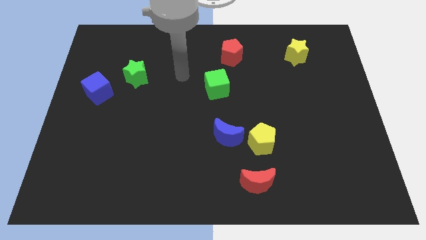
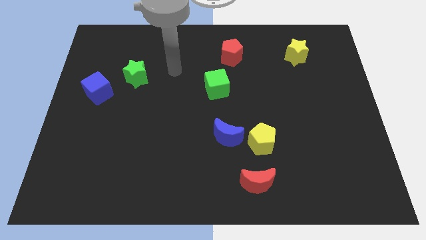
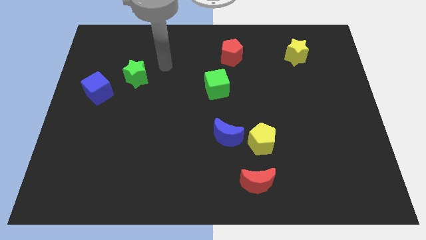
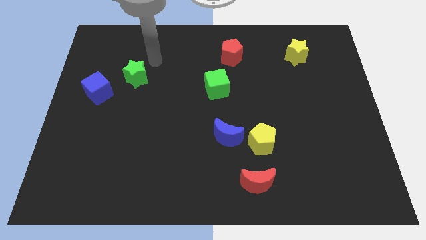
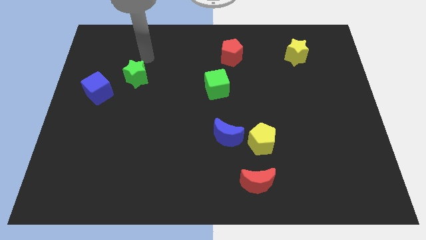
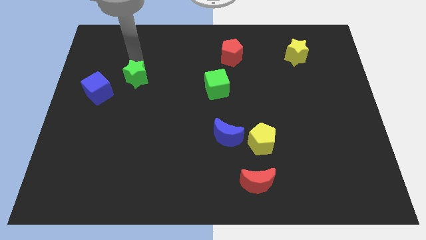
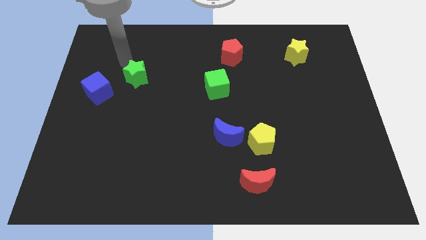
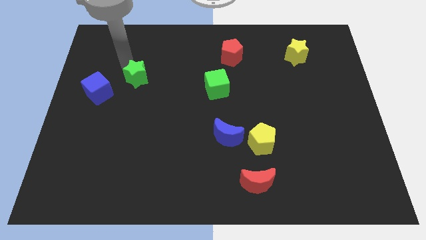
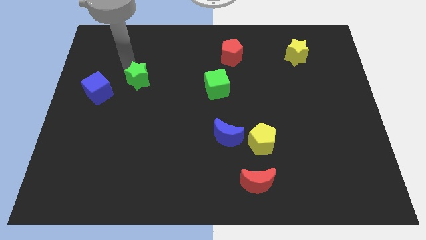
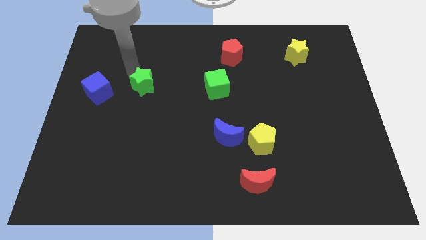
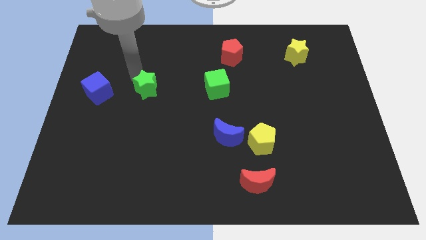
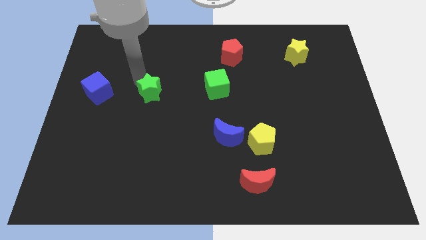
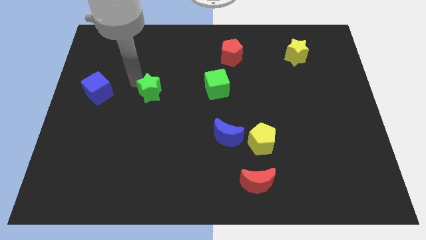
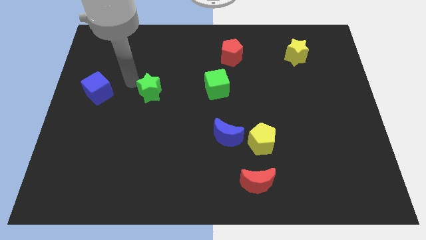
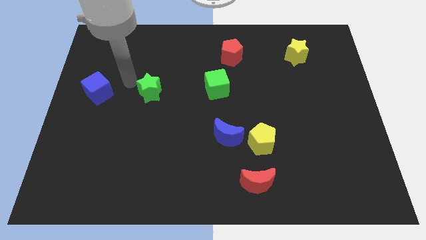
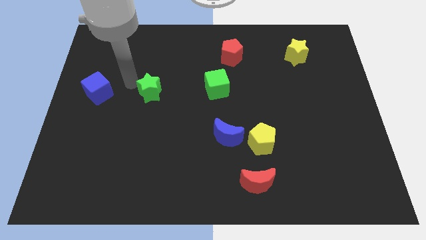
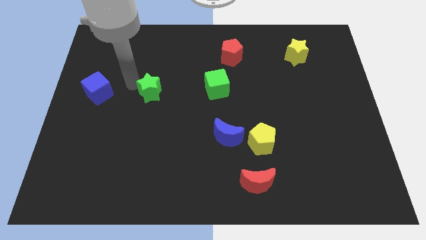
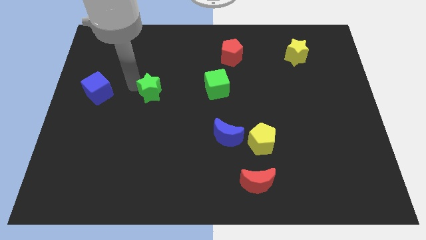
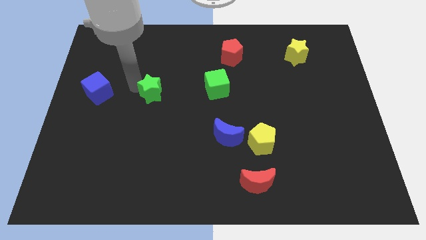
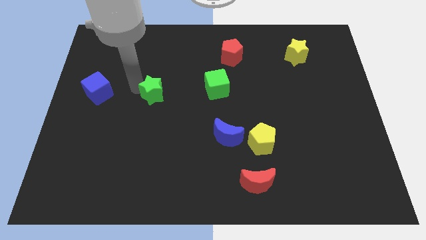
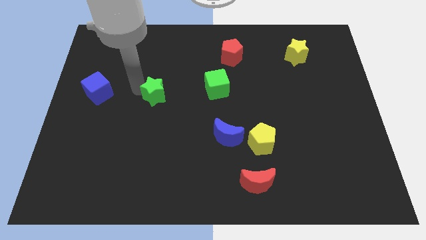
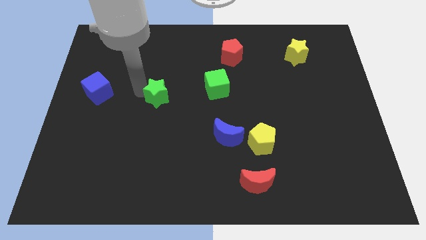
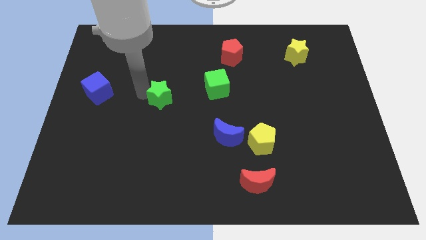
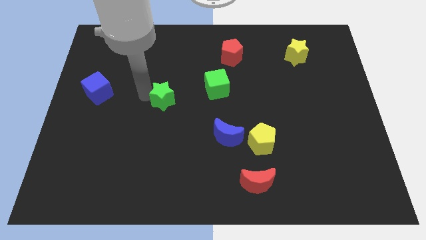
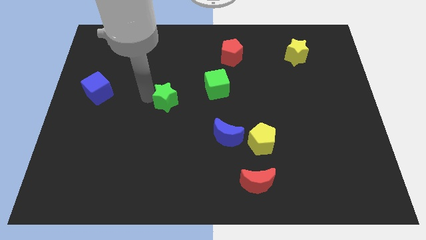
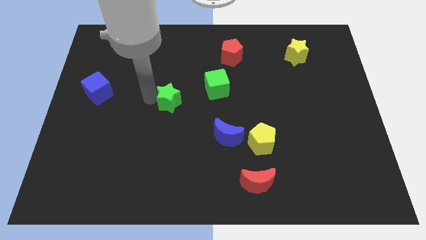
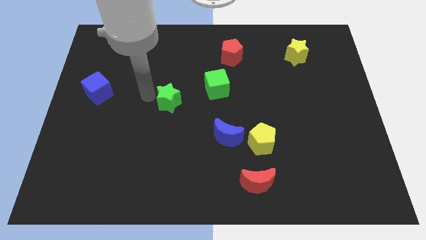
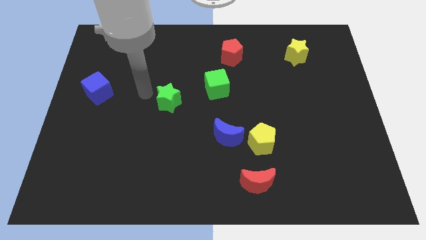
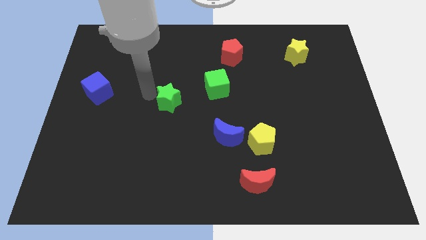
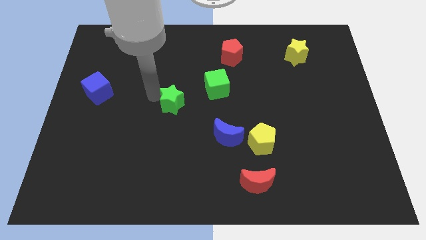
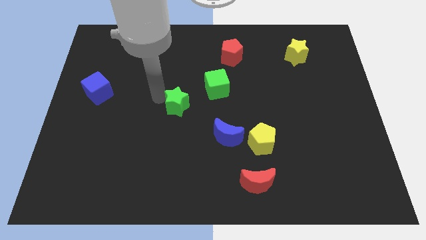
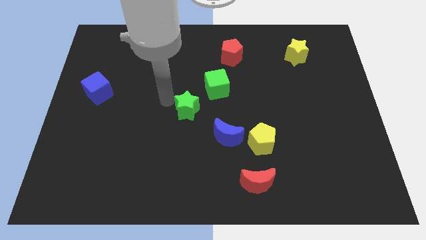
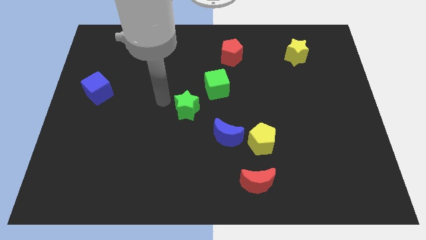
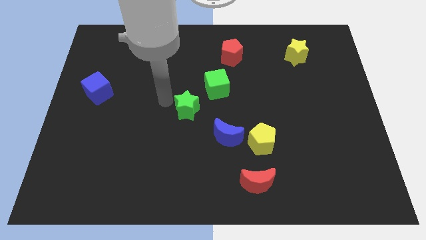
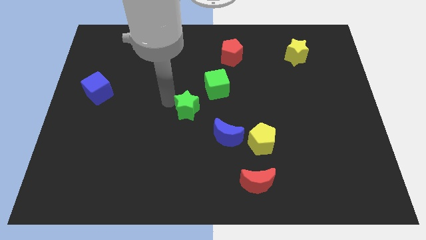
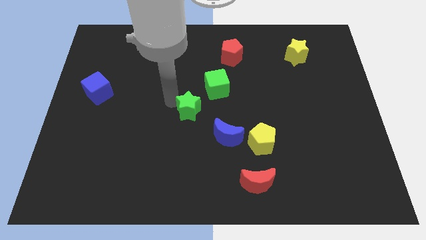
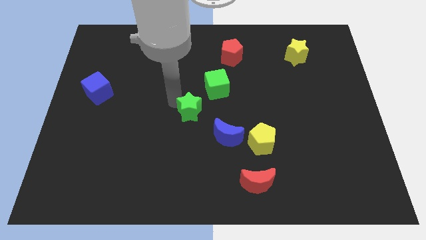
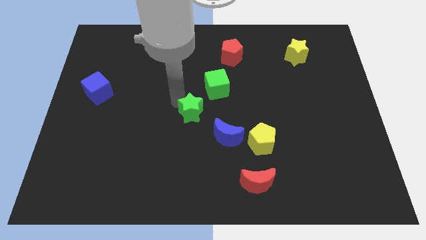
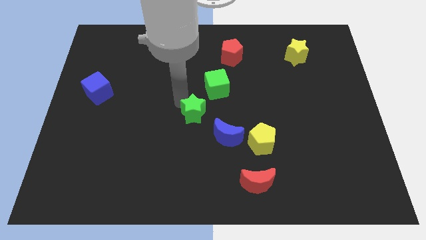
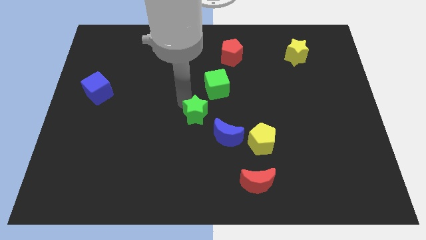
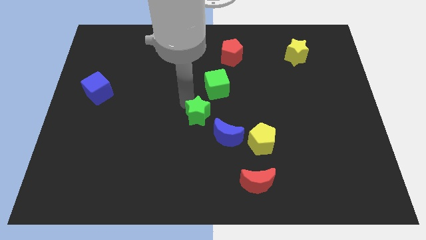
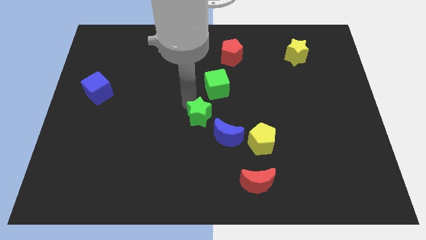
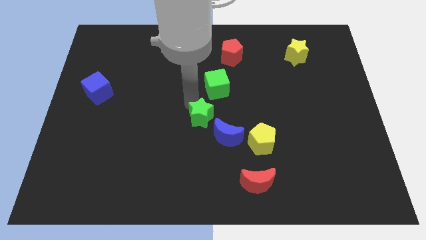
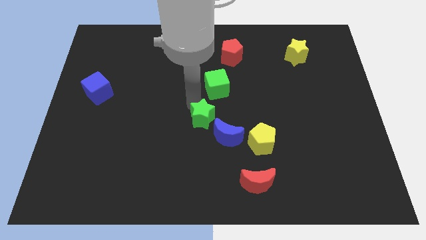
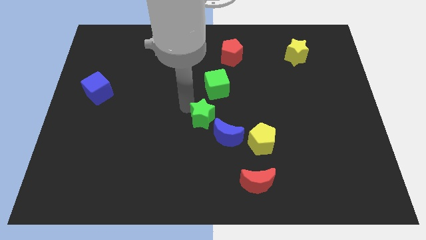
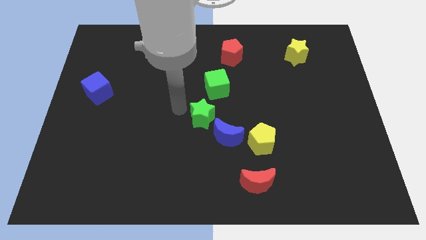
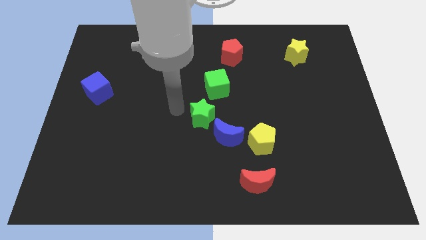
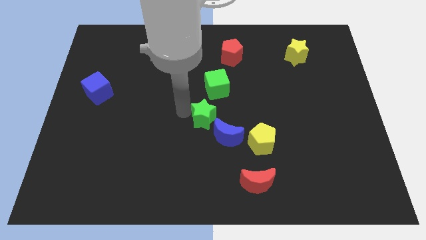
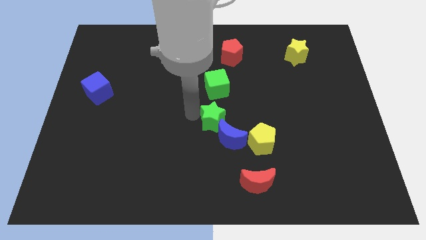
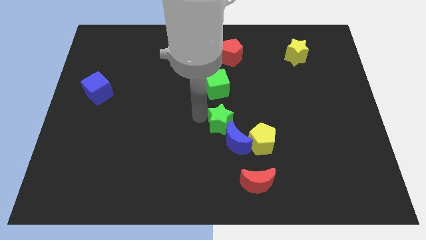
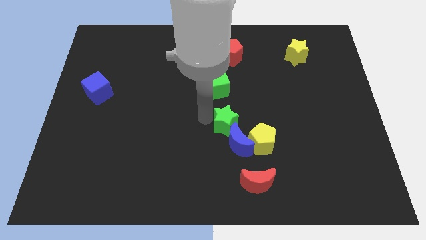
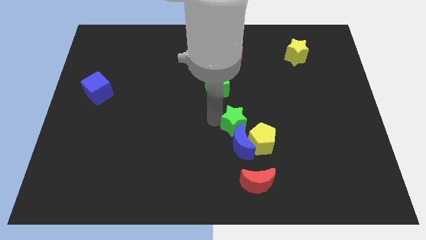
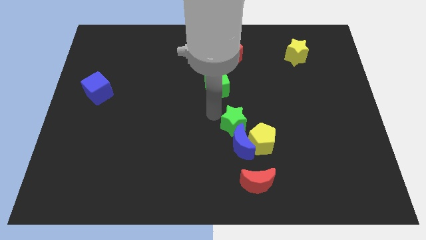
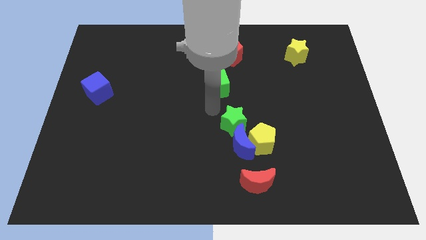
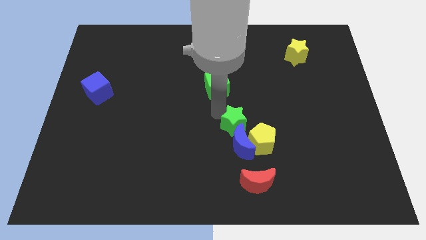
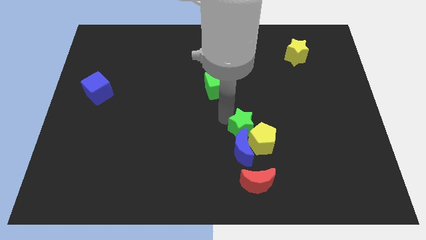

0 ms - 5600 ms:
put the green star close to the yellow pentagon

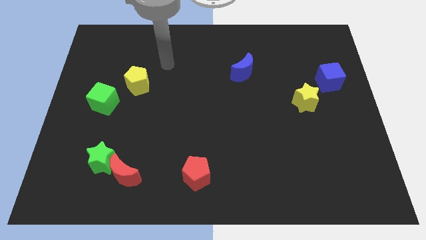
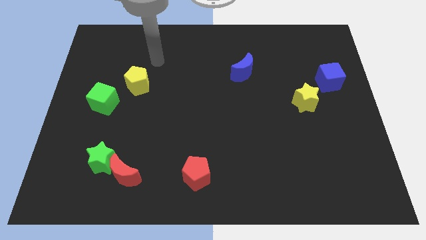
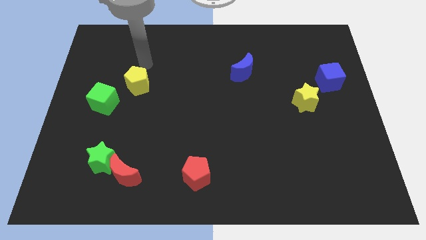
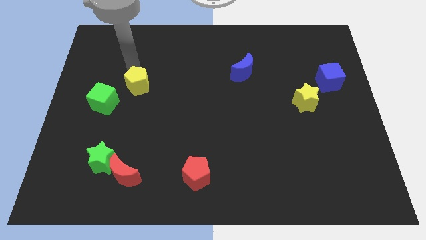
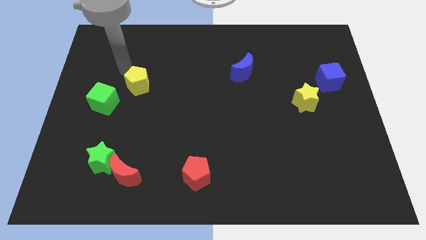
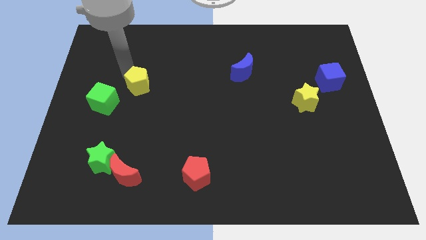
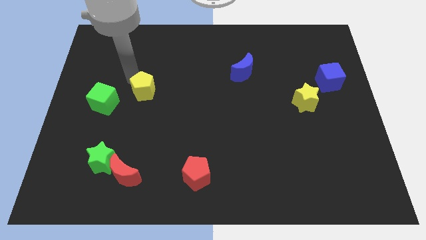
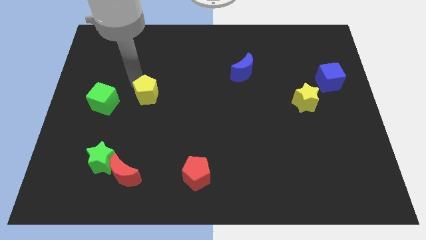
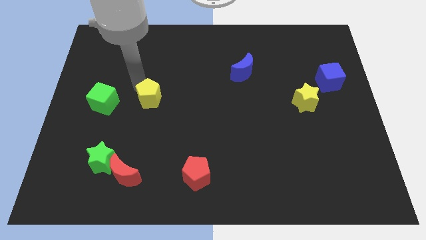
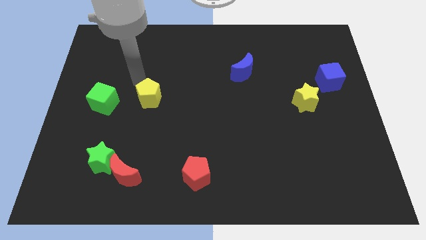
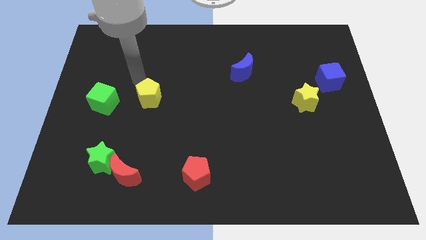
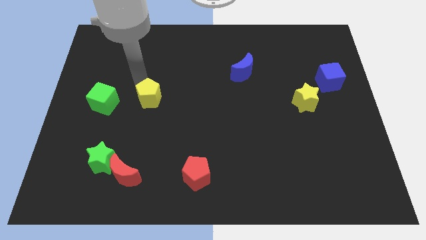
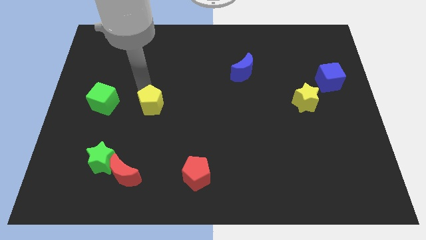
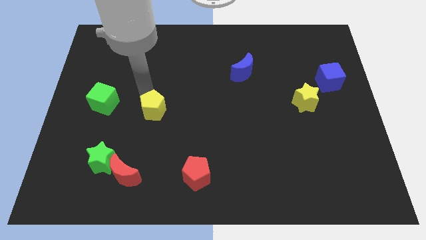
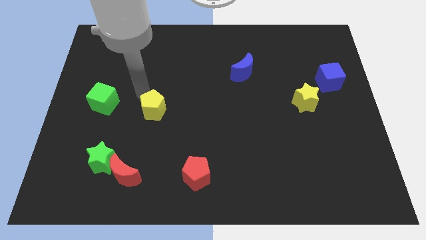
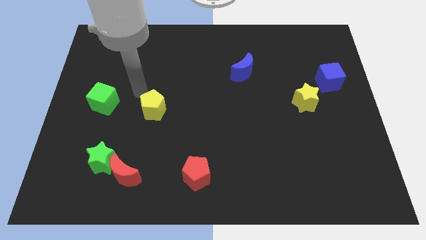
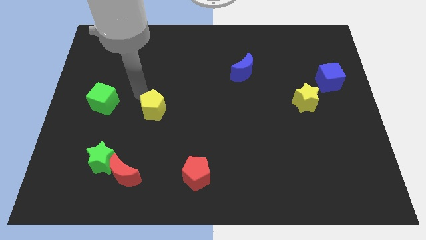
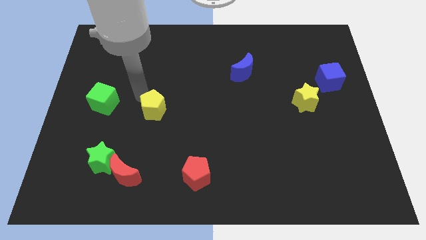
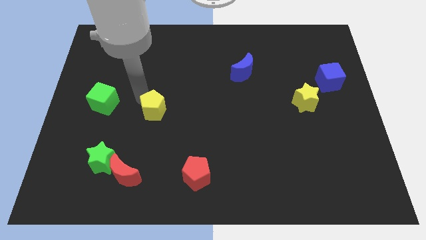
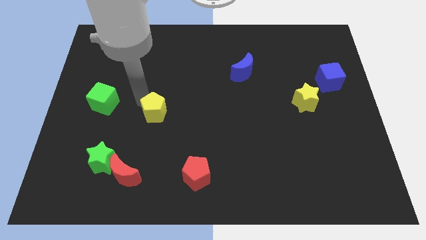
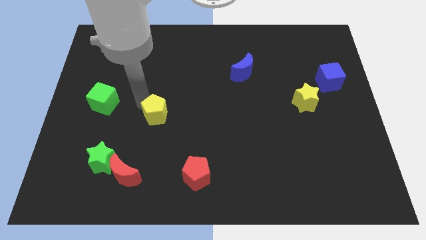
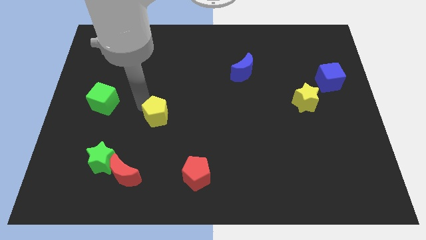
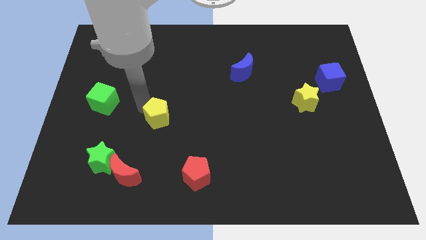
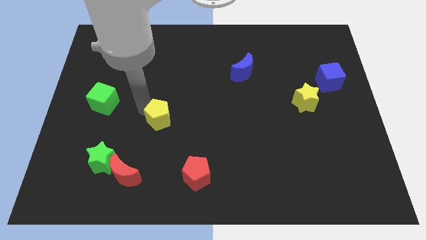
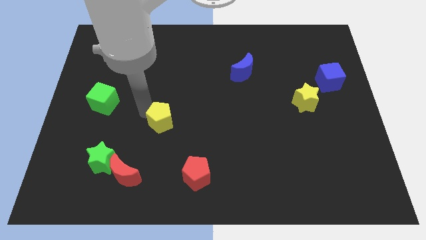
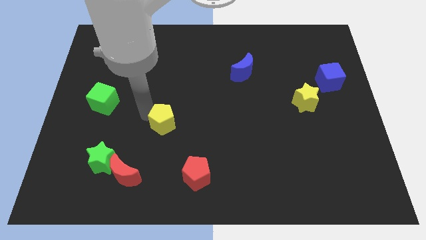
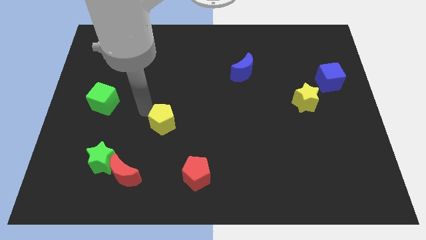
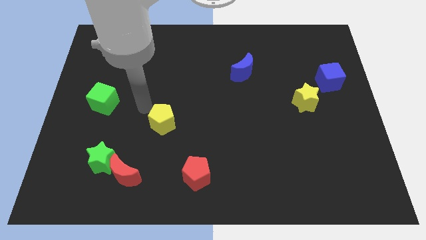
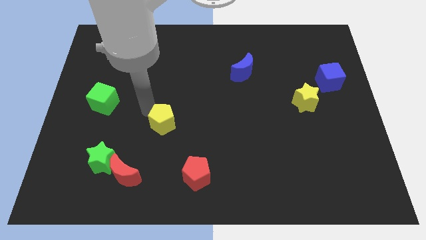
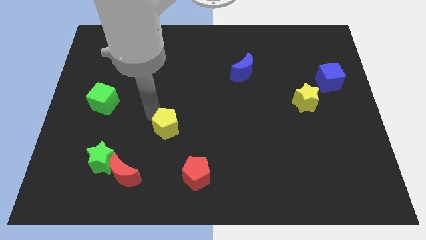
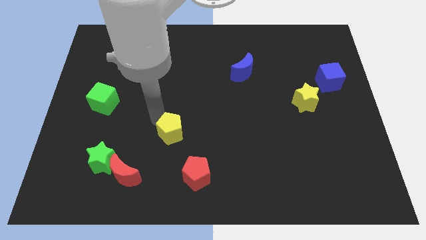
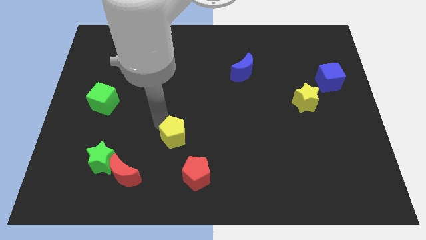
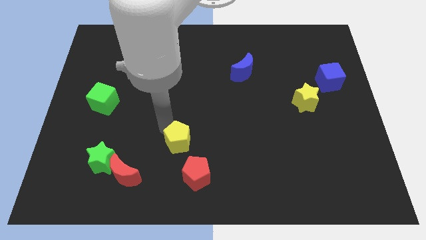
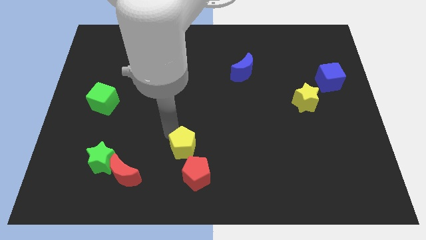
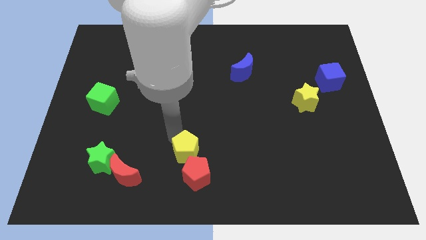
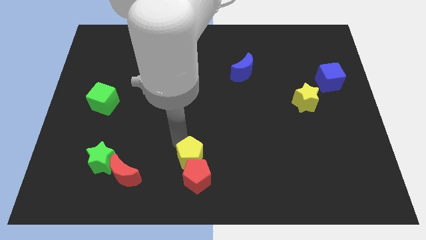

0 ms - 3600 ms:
push the yellow pentagon towards the red pentagon
